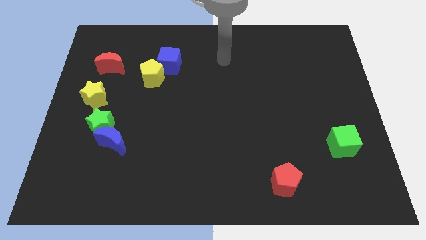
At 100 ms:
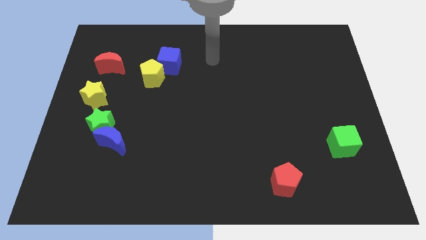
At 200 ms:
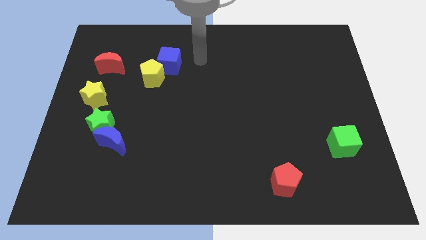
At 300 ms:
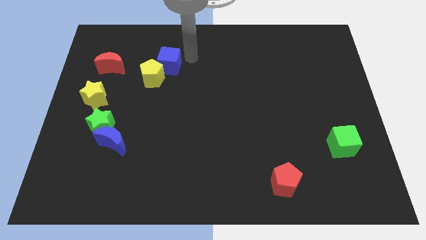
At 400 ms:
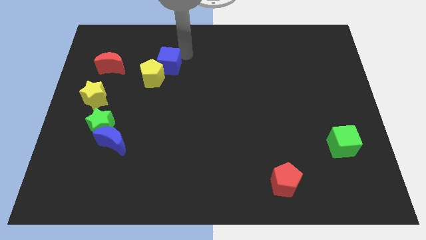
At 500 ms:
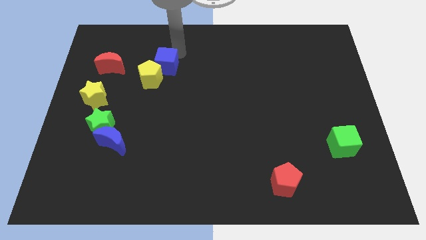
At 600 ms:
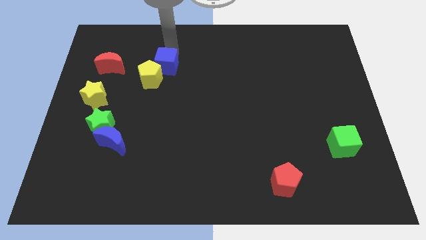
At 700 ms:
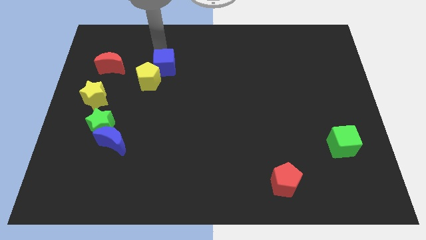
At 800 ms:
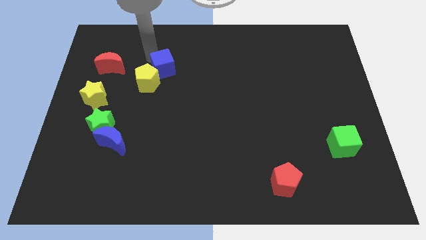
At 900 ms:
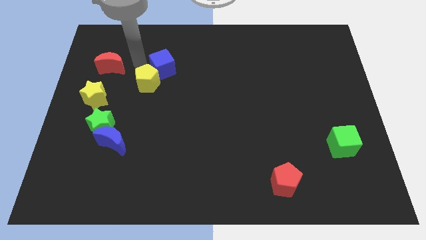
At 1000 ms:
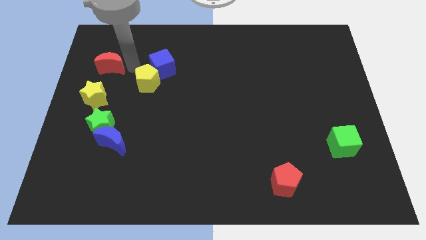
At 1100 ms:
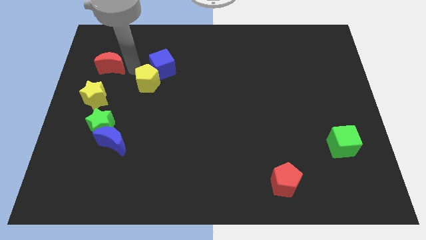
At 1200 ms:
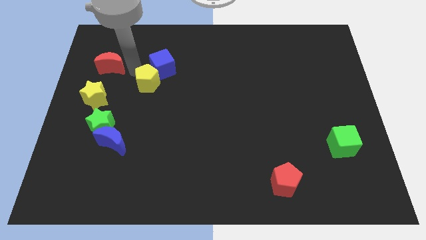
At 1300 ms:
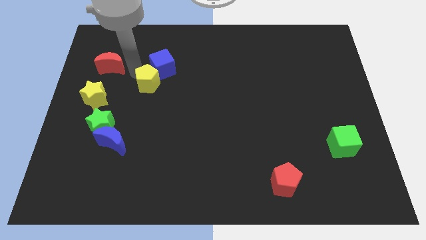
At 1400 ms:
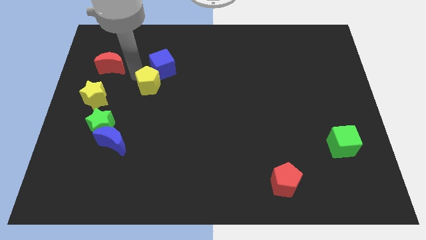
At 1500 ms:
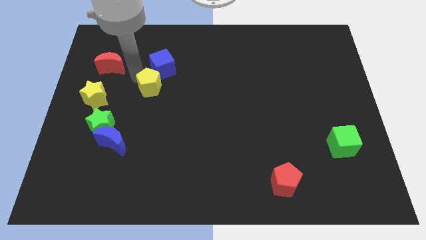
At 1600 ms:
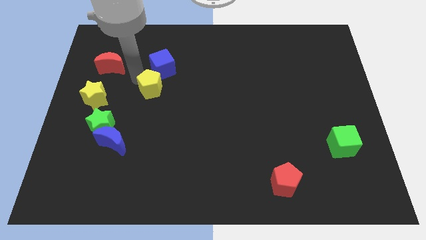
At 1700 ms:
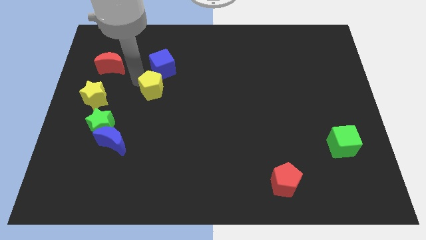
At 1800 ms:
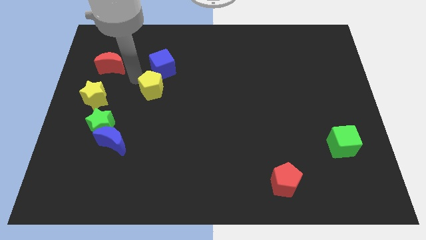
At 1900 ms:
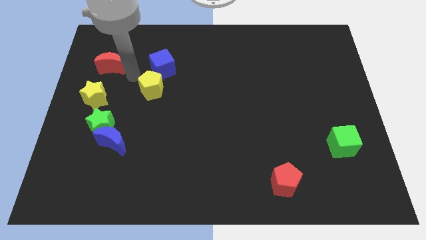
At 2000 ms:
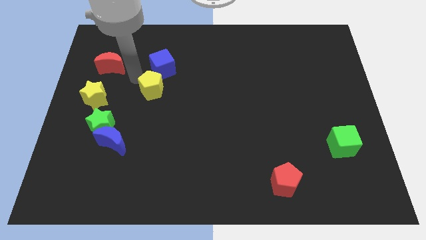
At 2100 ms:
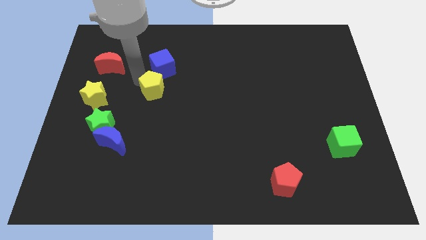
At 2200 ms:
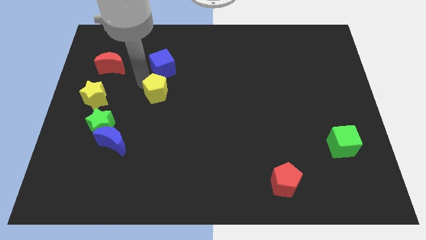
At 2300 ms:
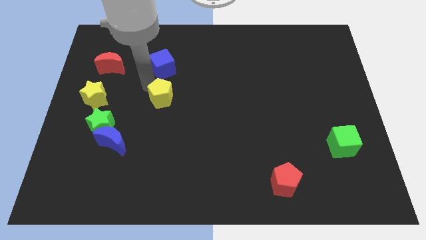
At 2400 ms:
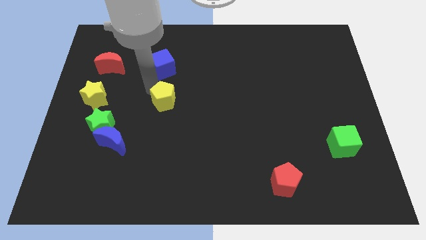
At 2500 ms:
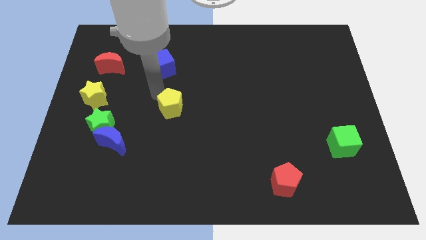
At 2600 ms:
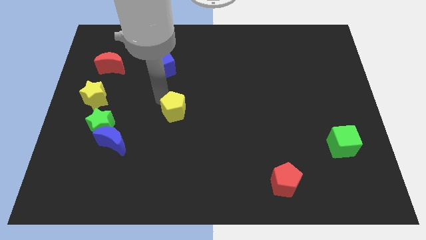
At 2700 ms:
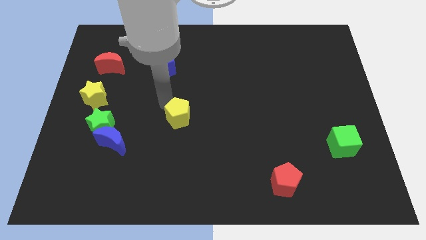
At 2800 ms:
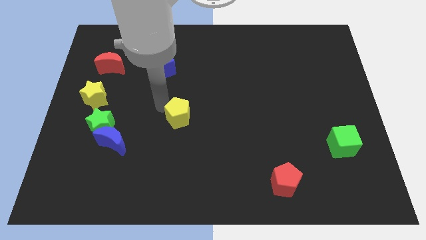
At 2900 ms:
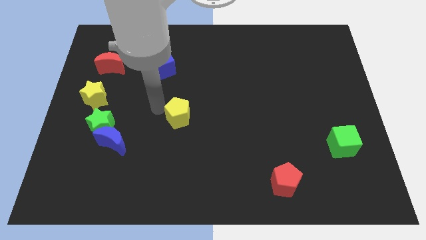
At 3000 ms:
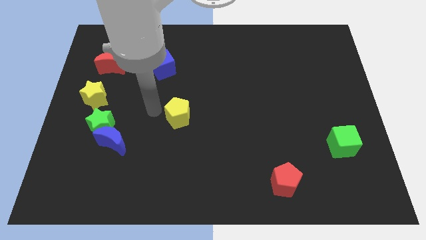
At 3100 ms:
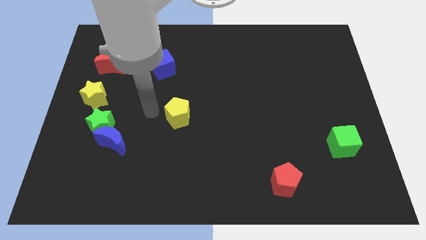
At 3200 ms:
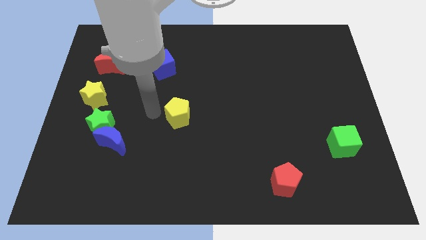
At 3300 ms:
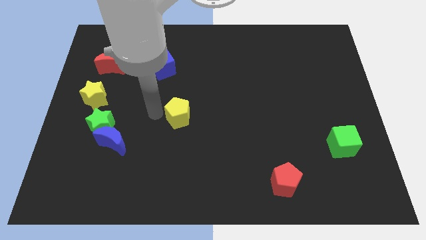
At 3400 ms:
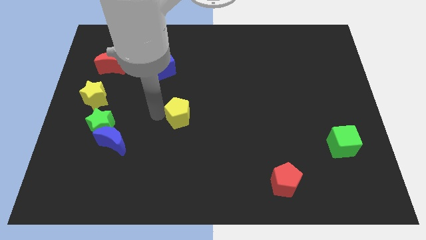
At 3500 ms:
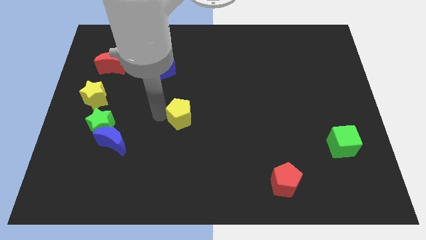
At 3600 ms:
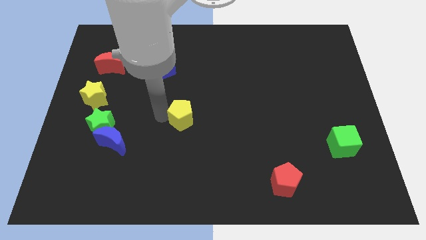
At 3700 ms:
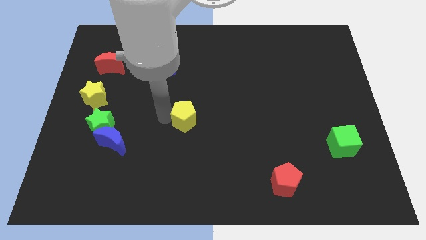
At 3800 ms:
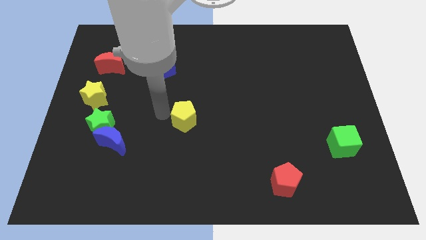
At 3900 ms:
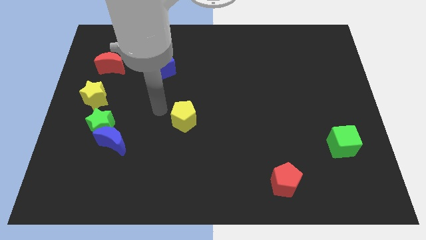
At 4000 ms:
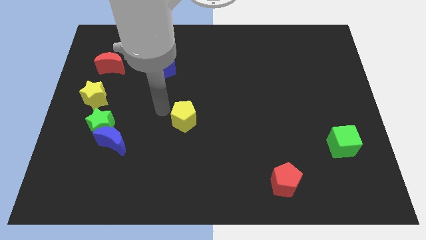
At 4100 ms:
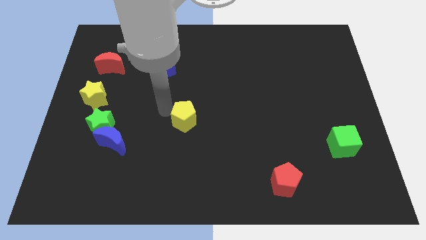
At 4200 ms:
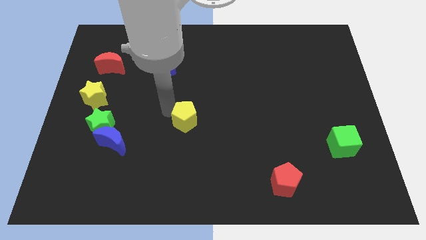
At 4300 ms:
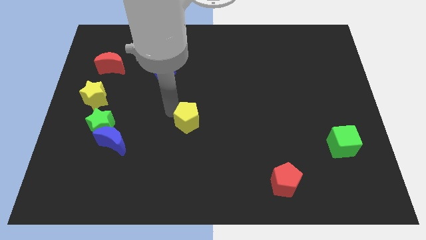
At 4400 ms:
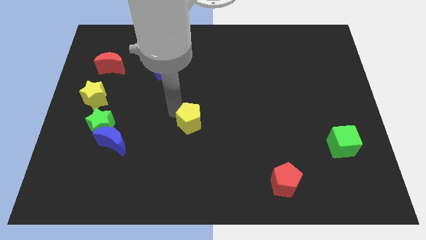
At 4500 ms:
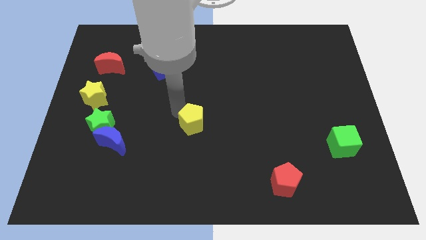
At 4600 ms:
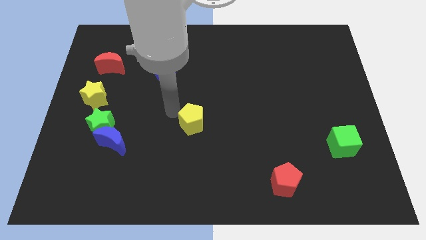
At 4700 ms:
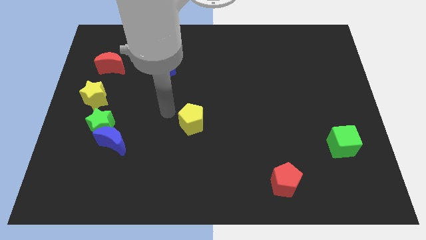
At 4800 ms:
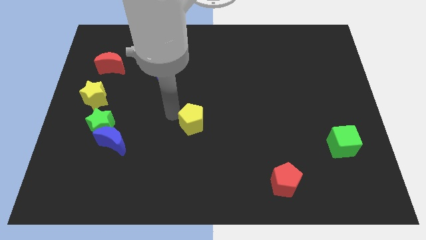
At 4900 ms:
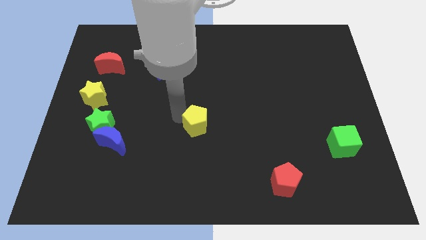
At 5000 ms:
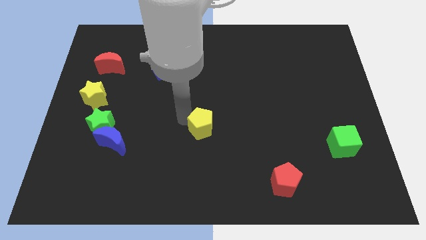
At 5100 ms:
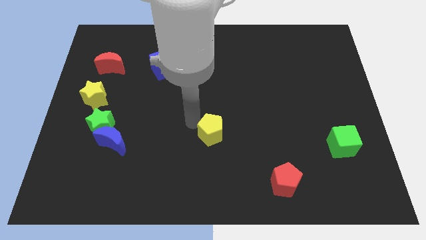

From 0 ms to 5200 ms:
move the yellow pentagon down and to the right

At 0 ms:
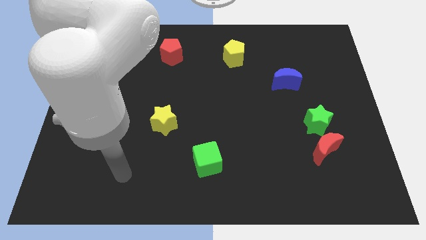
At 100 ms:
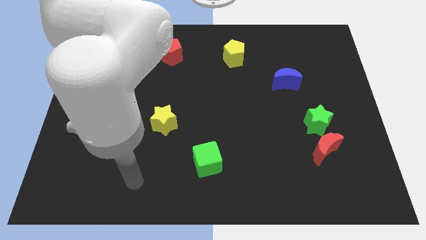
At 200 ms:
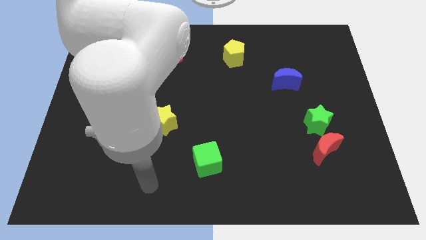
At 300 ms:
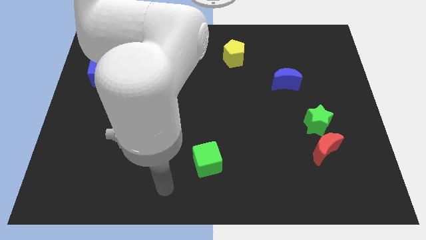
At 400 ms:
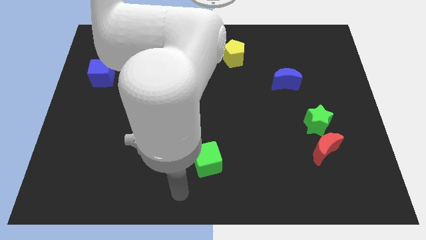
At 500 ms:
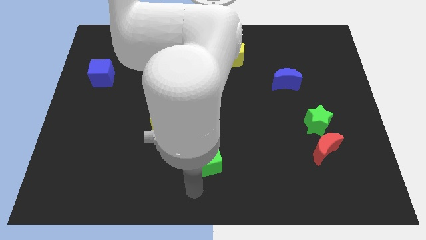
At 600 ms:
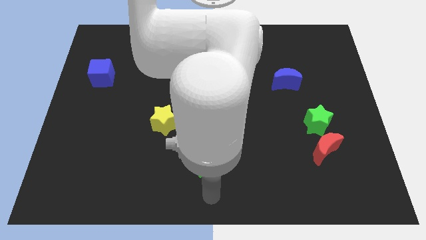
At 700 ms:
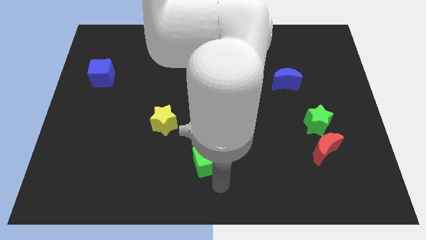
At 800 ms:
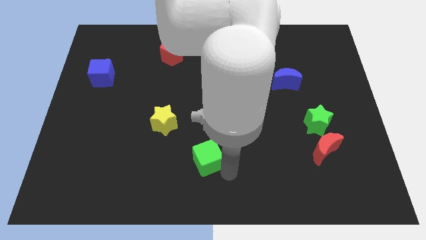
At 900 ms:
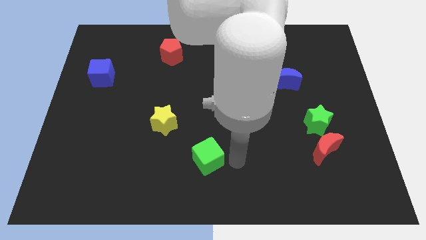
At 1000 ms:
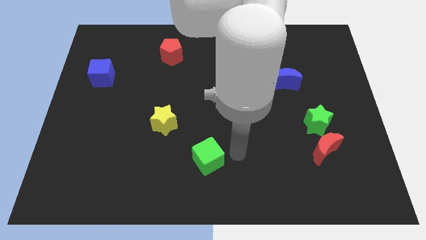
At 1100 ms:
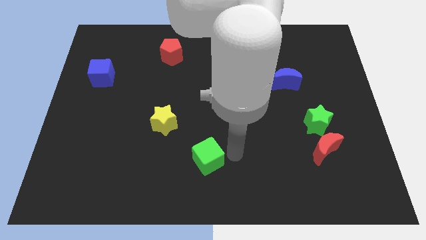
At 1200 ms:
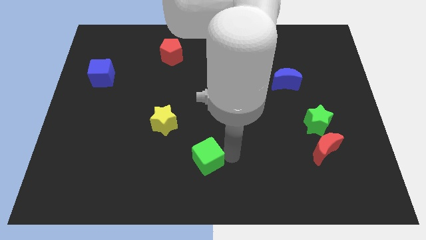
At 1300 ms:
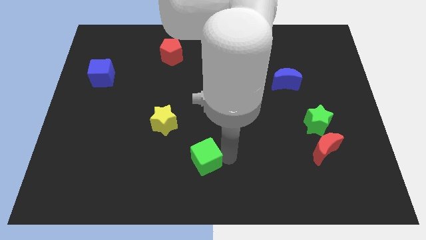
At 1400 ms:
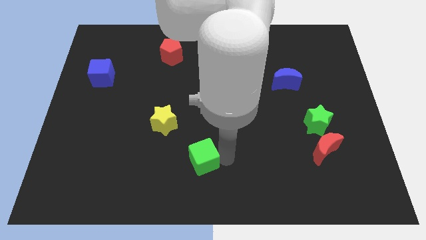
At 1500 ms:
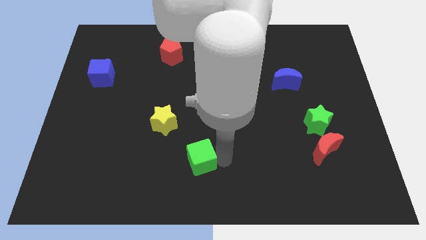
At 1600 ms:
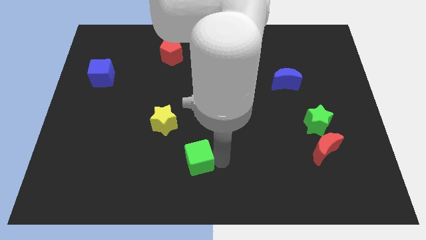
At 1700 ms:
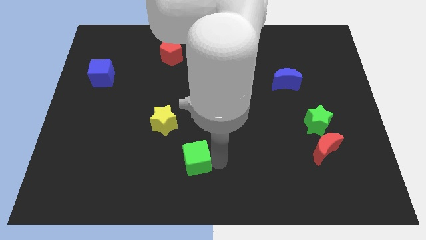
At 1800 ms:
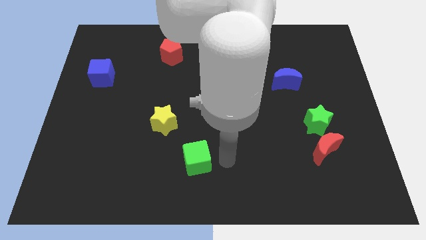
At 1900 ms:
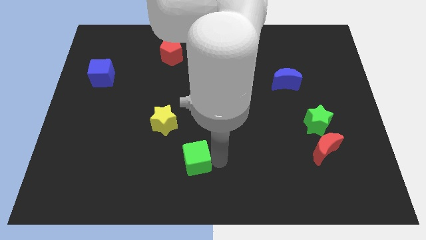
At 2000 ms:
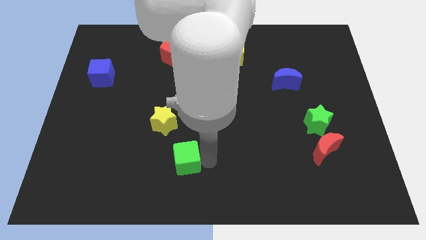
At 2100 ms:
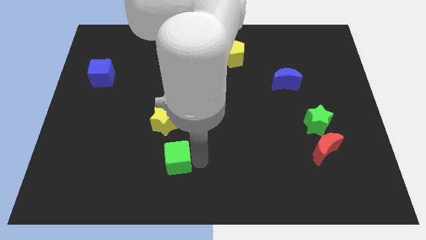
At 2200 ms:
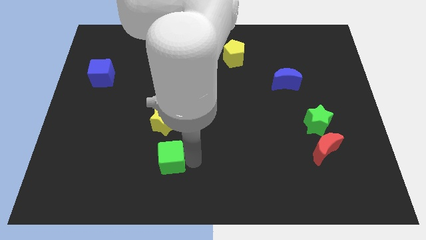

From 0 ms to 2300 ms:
slightly move the green cube left

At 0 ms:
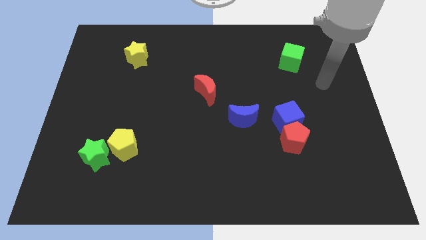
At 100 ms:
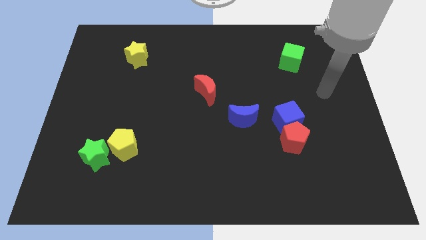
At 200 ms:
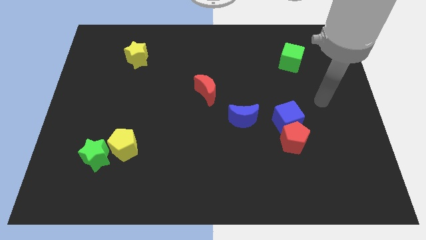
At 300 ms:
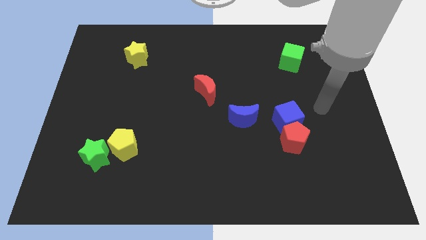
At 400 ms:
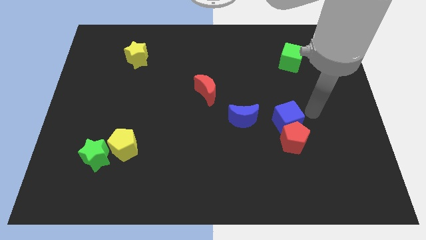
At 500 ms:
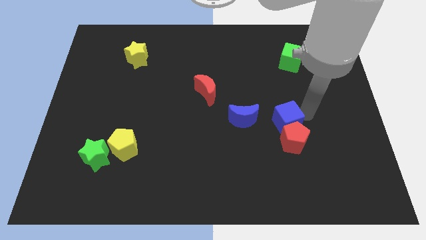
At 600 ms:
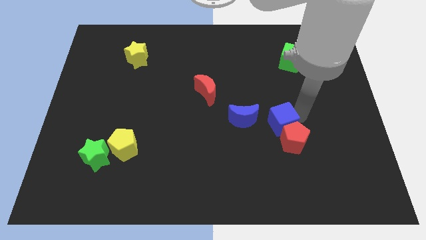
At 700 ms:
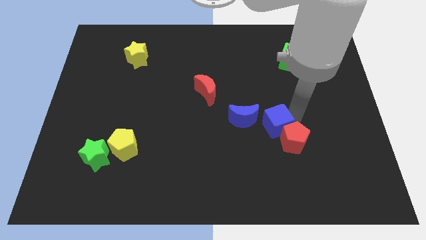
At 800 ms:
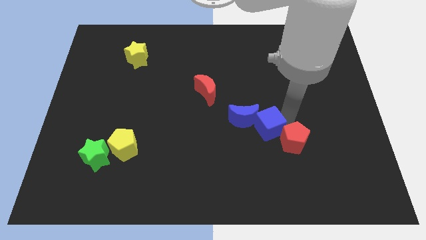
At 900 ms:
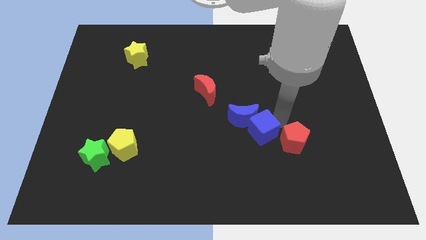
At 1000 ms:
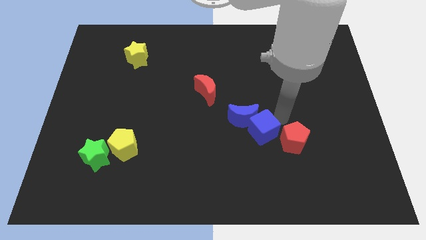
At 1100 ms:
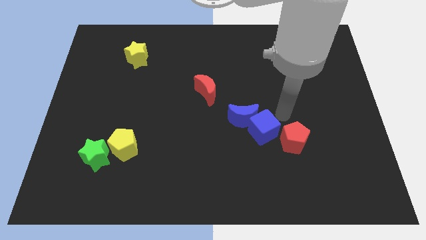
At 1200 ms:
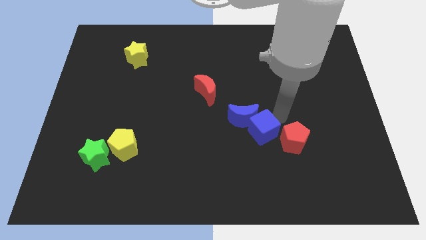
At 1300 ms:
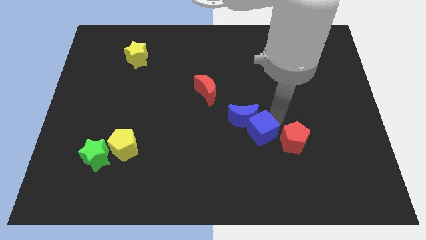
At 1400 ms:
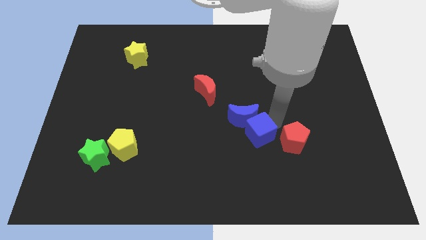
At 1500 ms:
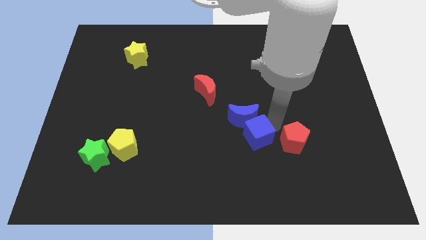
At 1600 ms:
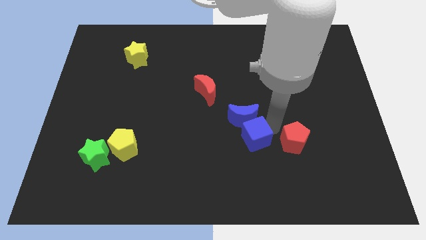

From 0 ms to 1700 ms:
move the blue cube to the left a bit
